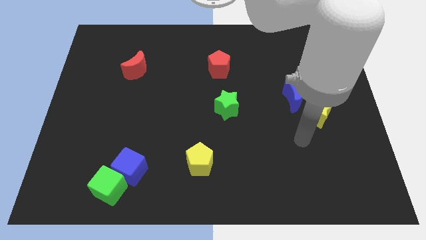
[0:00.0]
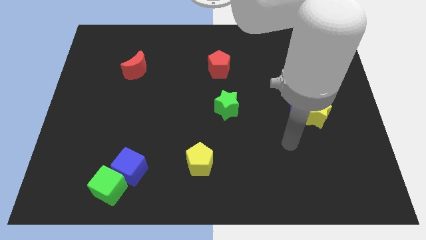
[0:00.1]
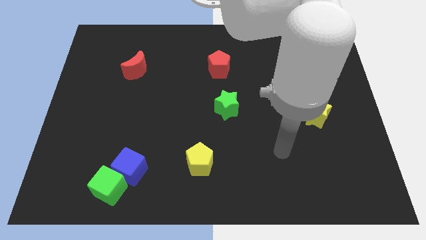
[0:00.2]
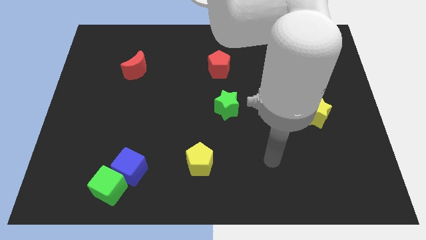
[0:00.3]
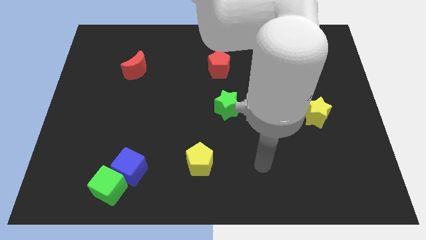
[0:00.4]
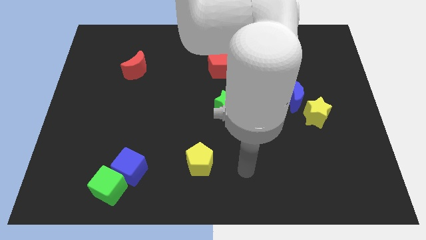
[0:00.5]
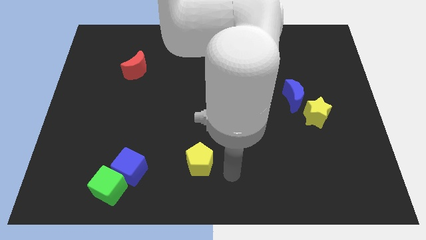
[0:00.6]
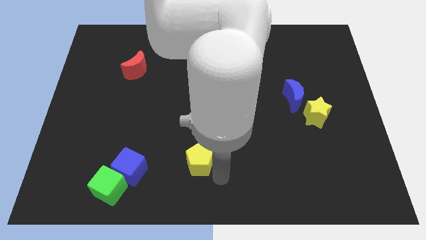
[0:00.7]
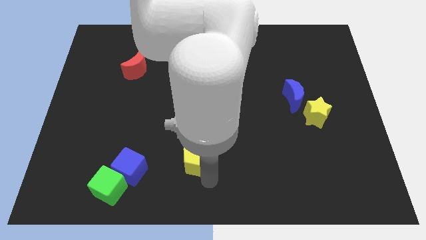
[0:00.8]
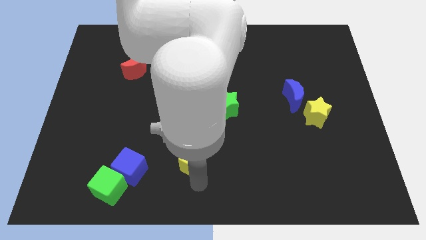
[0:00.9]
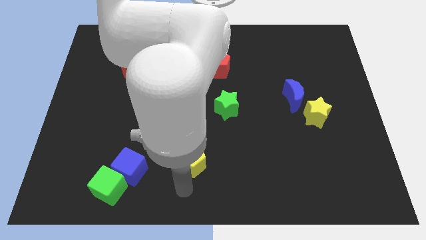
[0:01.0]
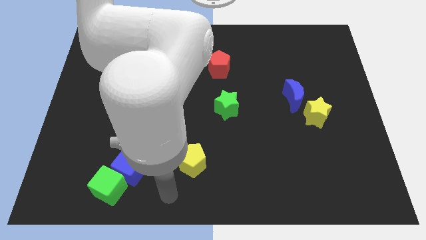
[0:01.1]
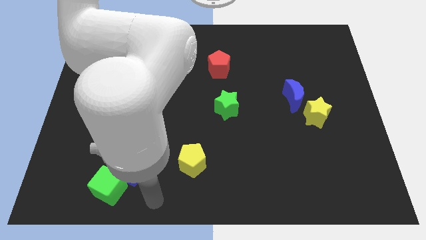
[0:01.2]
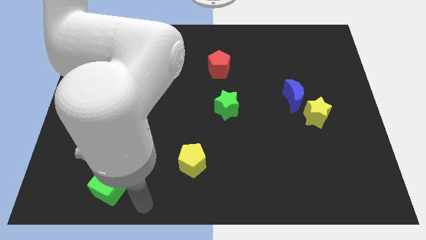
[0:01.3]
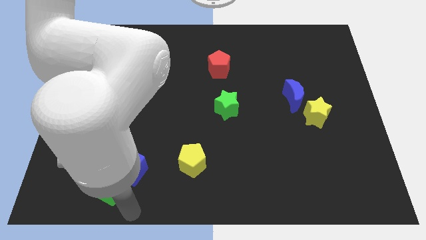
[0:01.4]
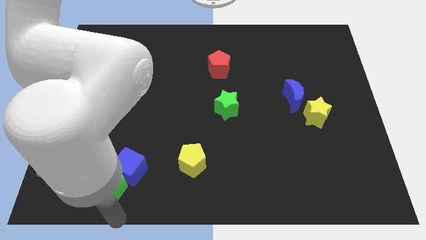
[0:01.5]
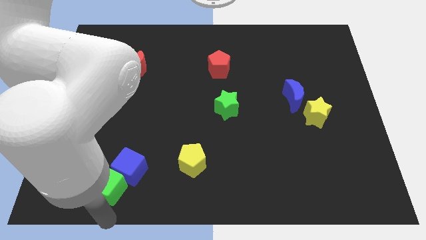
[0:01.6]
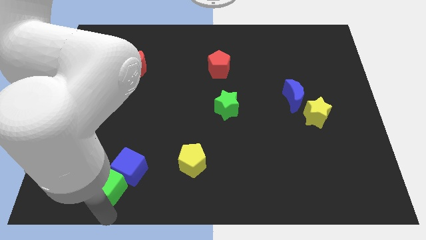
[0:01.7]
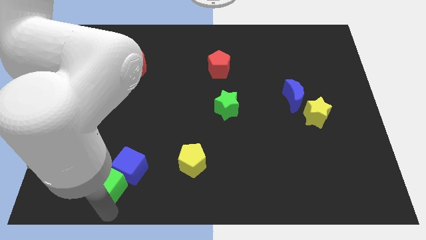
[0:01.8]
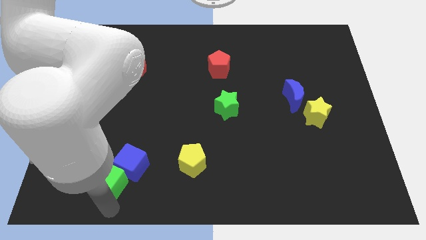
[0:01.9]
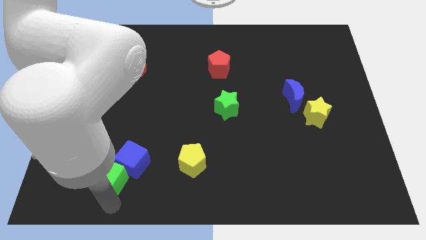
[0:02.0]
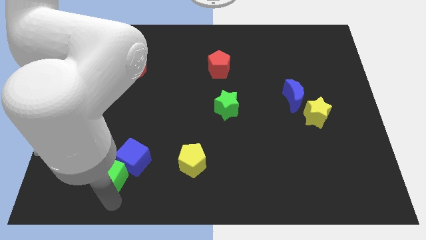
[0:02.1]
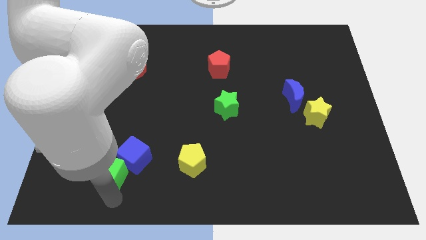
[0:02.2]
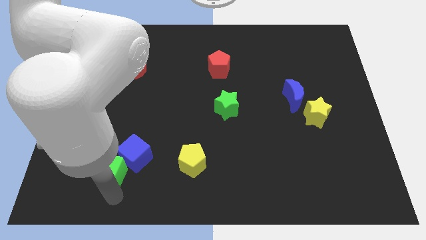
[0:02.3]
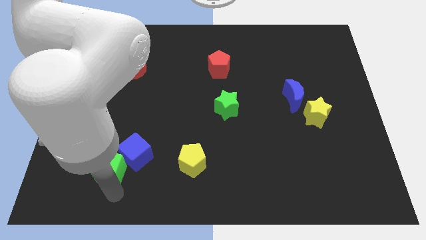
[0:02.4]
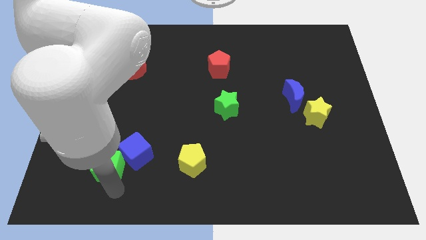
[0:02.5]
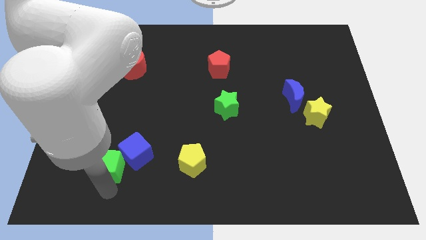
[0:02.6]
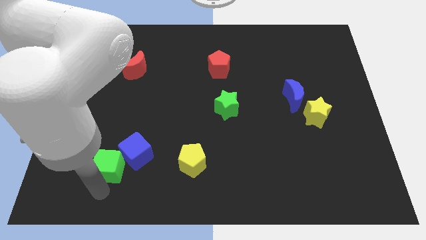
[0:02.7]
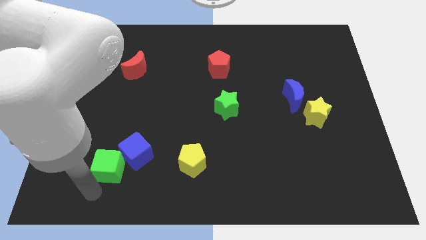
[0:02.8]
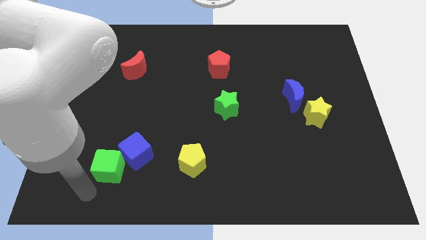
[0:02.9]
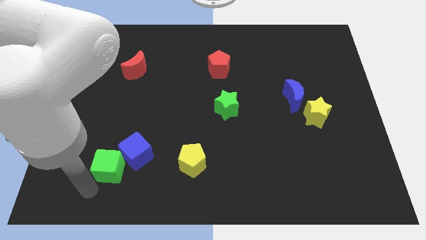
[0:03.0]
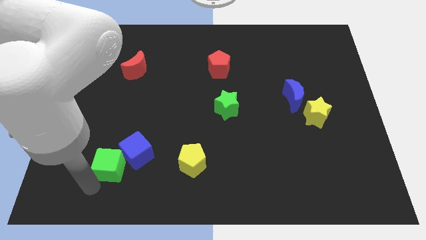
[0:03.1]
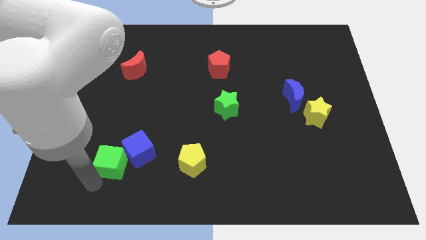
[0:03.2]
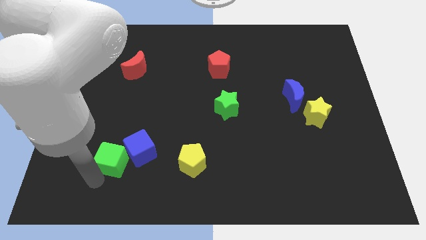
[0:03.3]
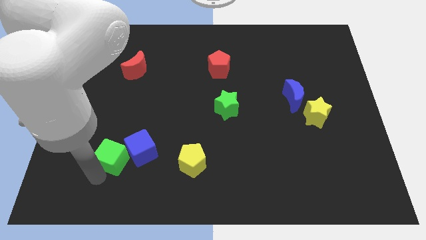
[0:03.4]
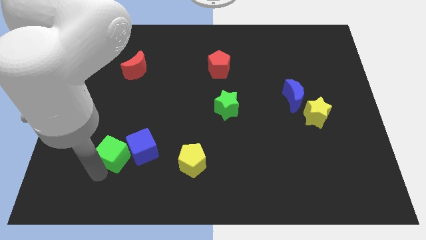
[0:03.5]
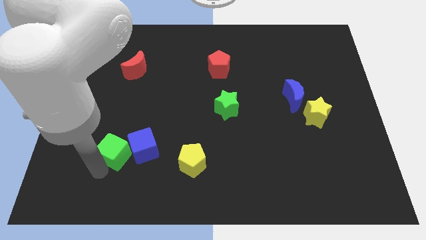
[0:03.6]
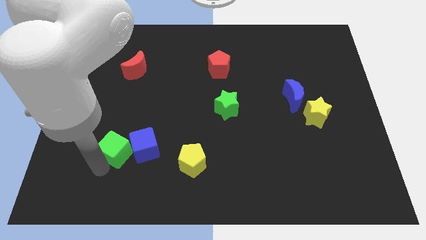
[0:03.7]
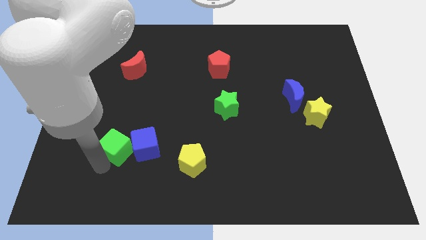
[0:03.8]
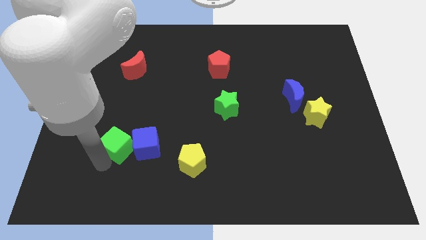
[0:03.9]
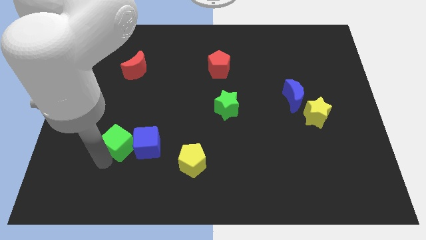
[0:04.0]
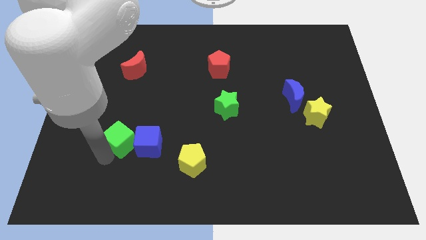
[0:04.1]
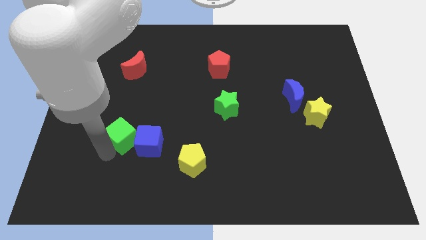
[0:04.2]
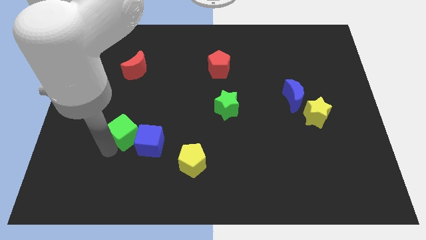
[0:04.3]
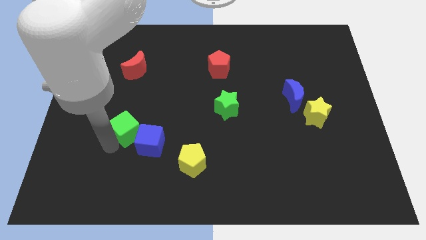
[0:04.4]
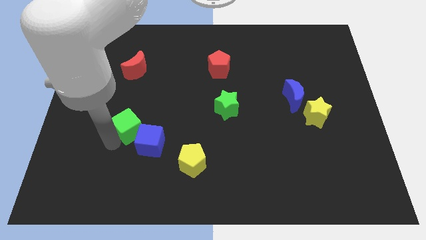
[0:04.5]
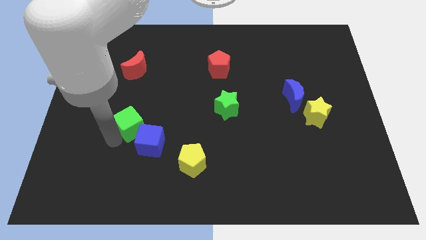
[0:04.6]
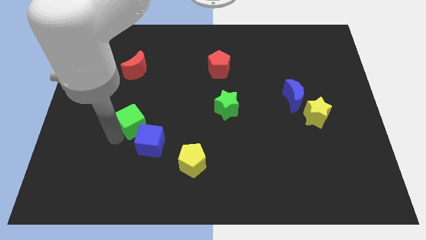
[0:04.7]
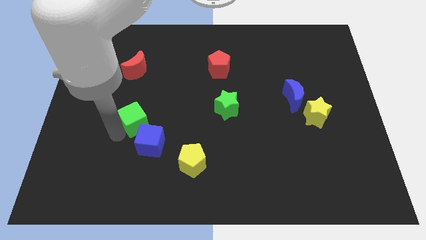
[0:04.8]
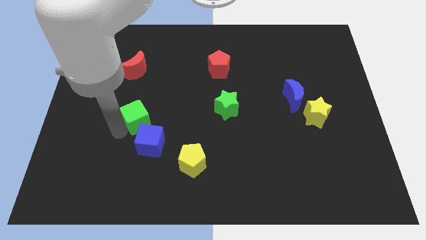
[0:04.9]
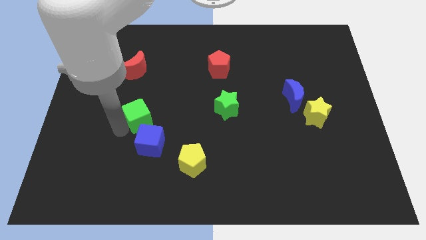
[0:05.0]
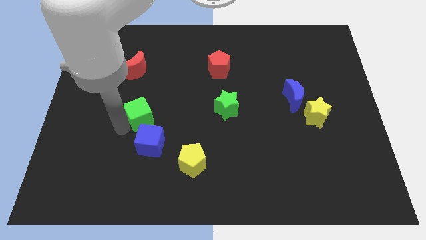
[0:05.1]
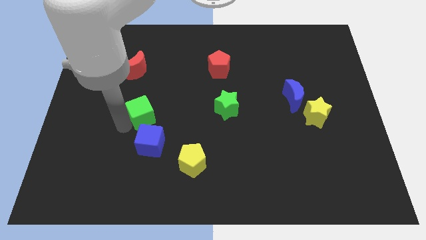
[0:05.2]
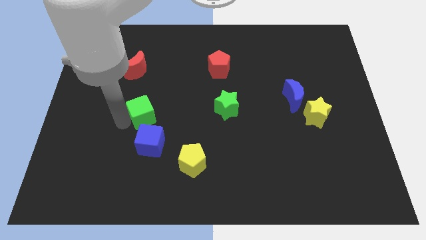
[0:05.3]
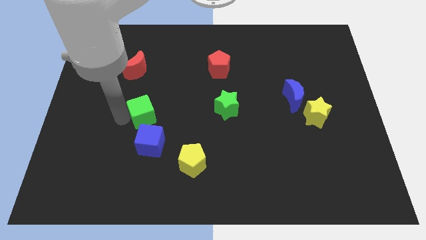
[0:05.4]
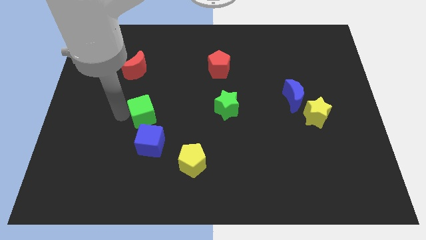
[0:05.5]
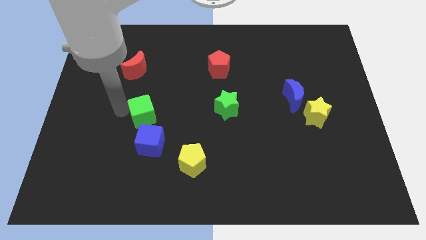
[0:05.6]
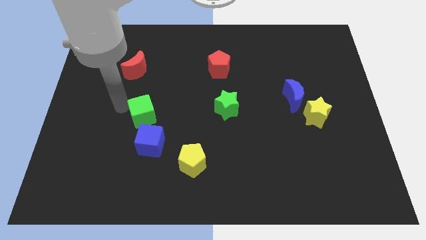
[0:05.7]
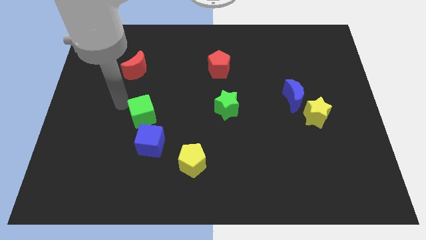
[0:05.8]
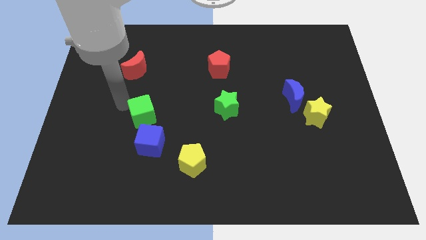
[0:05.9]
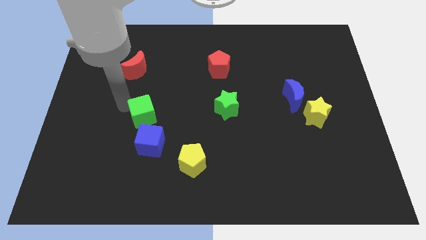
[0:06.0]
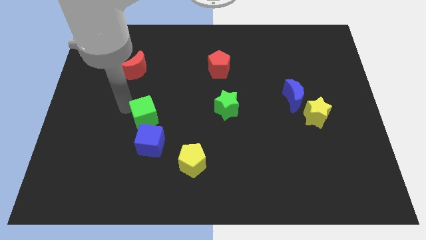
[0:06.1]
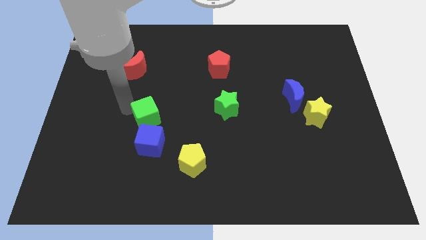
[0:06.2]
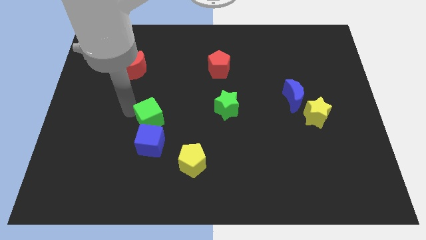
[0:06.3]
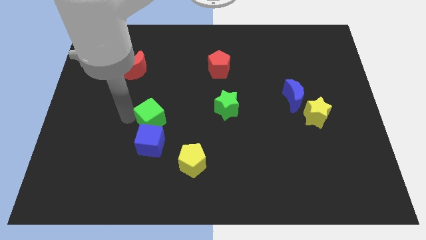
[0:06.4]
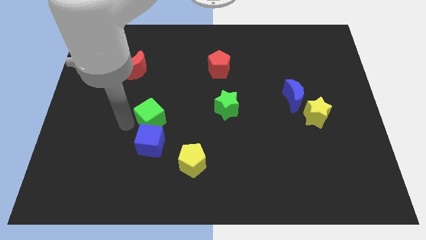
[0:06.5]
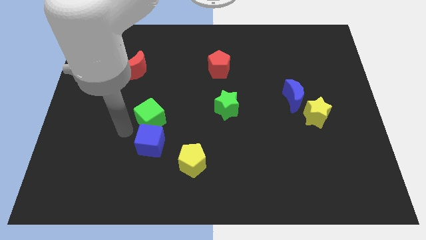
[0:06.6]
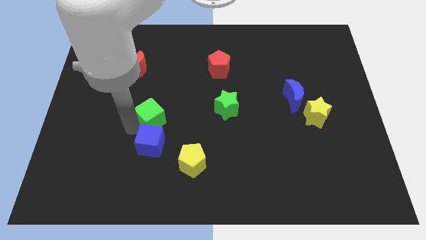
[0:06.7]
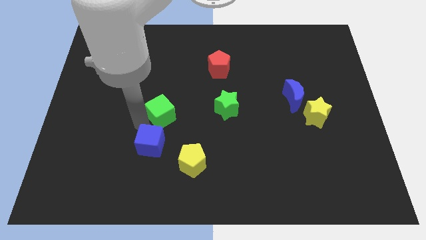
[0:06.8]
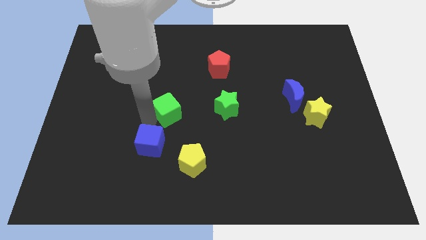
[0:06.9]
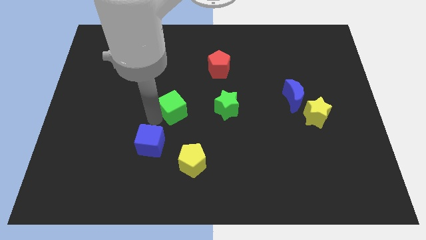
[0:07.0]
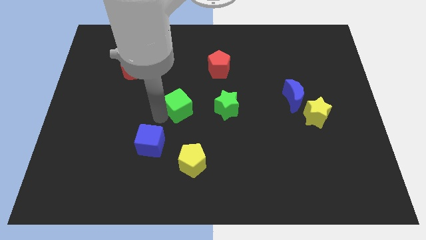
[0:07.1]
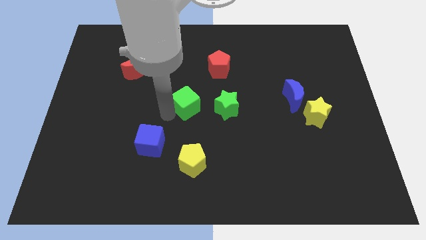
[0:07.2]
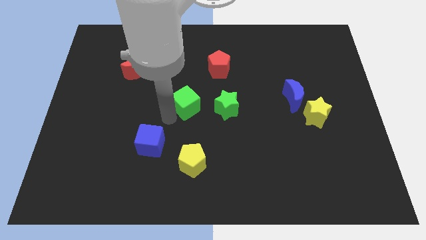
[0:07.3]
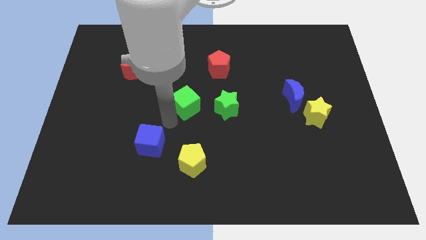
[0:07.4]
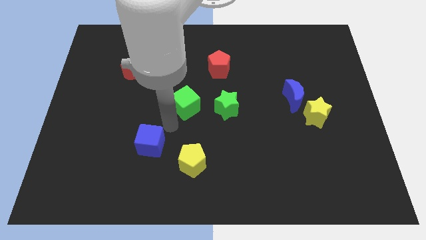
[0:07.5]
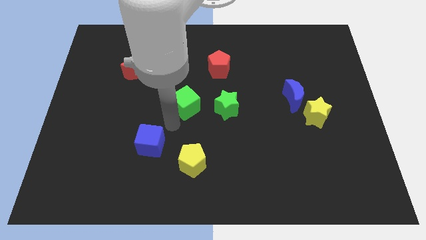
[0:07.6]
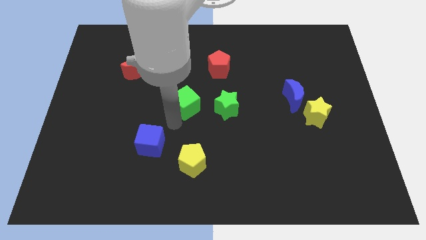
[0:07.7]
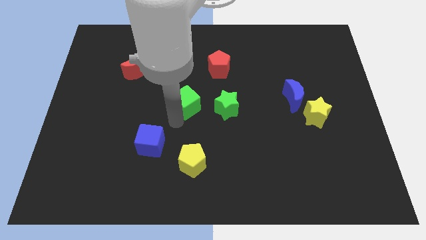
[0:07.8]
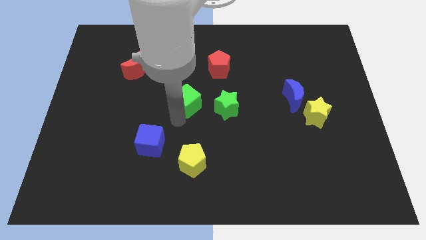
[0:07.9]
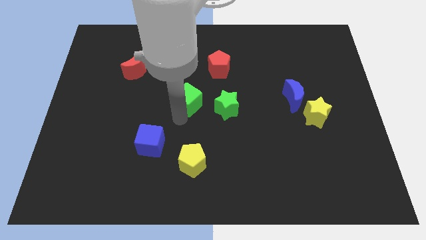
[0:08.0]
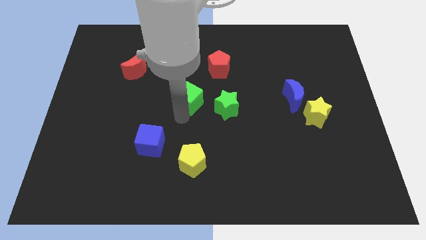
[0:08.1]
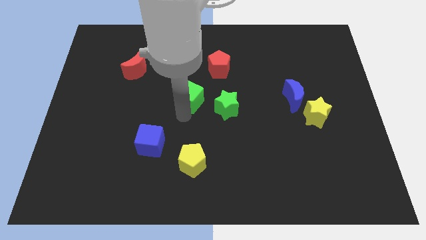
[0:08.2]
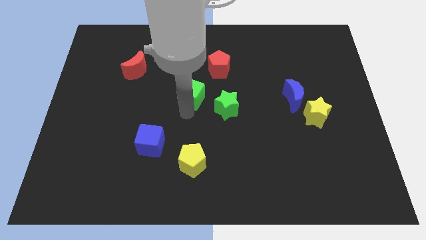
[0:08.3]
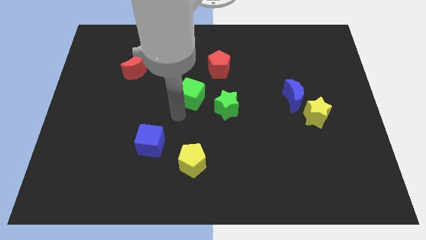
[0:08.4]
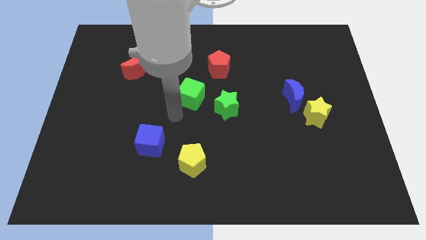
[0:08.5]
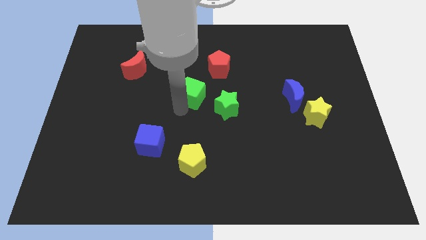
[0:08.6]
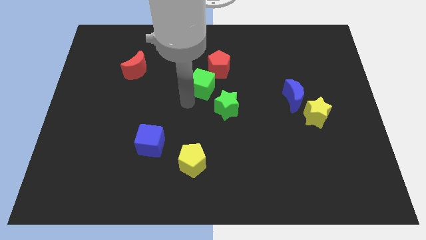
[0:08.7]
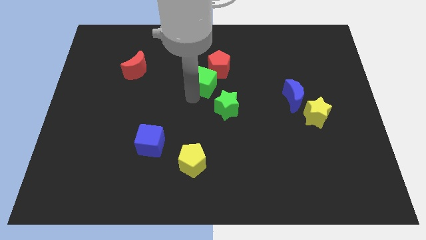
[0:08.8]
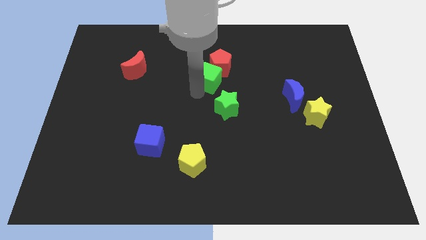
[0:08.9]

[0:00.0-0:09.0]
put the green cube next to the red pentagon
